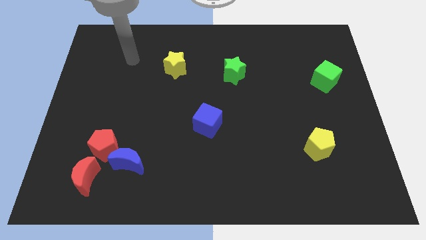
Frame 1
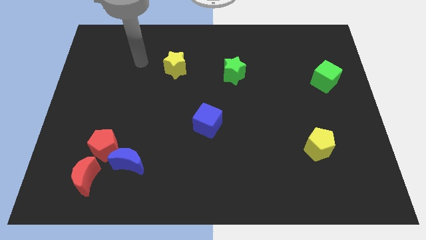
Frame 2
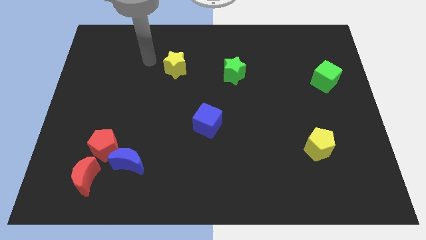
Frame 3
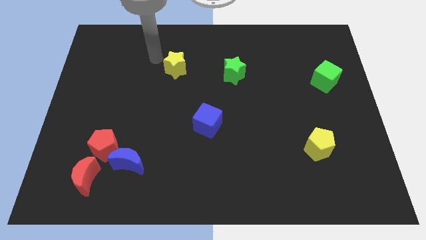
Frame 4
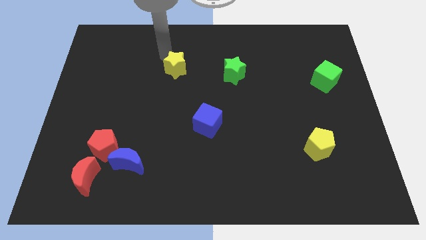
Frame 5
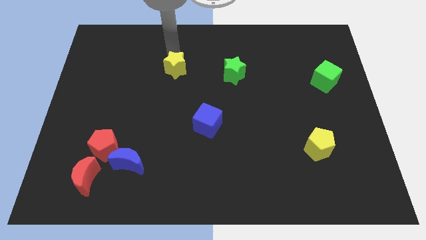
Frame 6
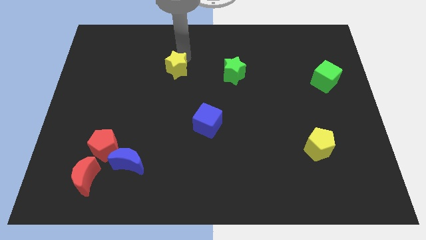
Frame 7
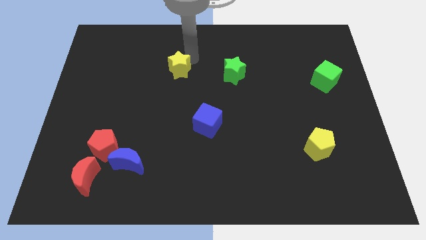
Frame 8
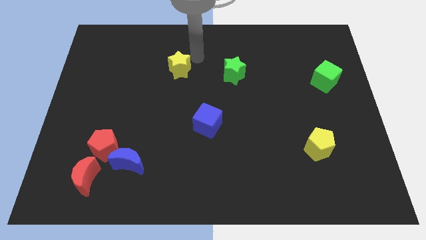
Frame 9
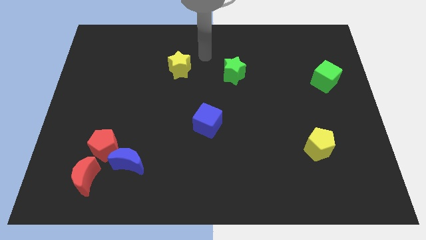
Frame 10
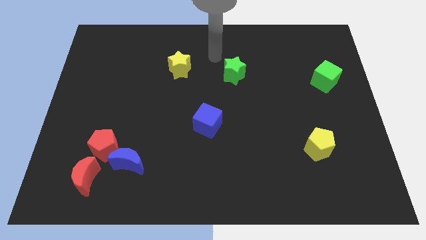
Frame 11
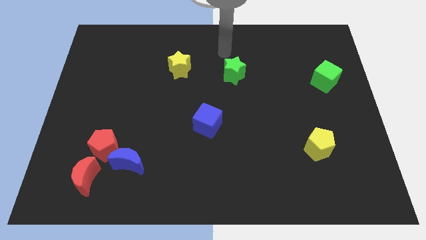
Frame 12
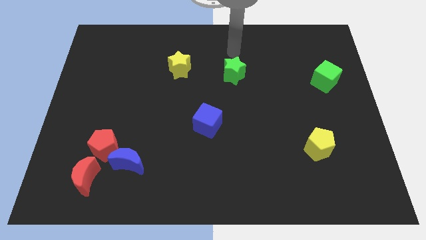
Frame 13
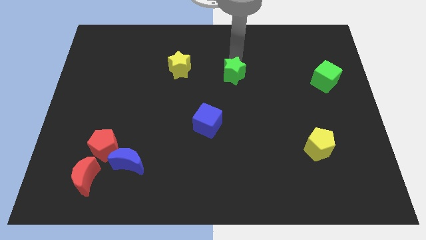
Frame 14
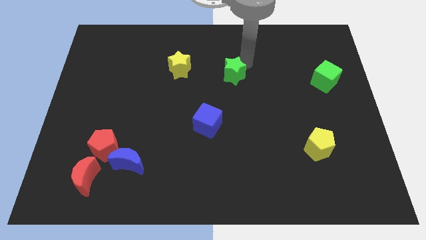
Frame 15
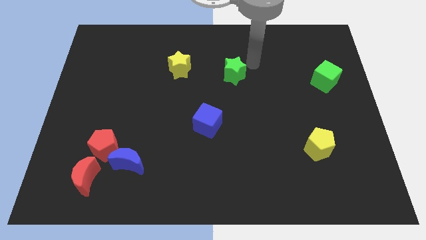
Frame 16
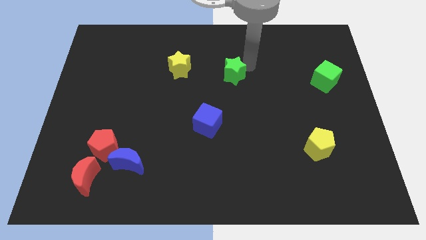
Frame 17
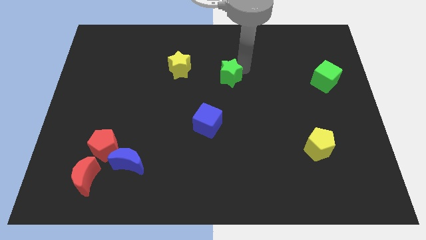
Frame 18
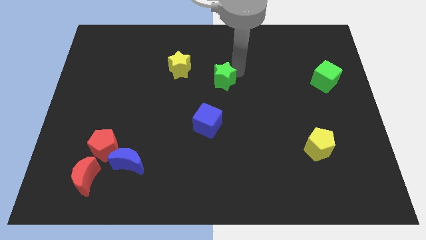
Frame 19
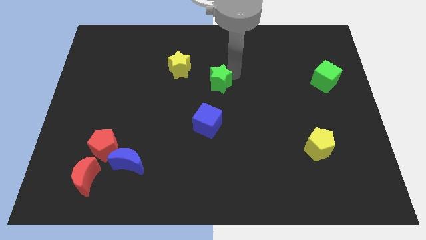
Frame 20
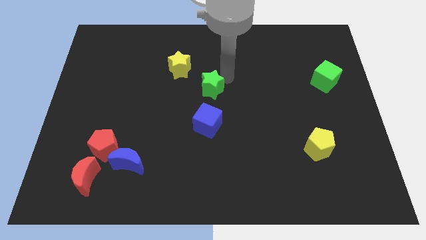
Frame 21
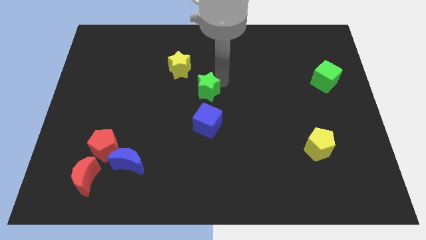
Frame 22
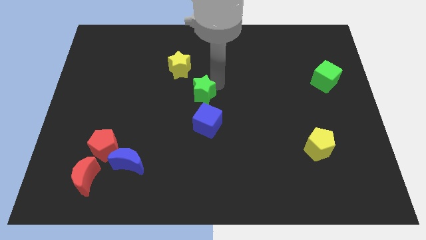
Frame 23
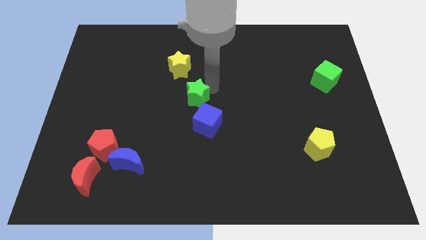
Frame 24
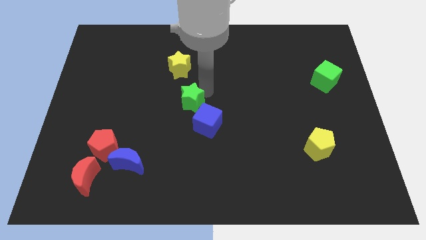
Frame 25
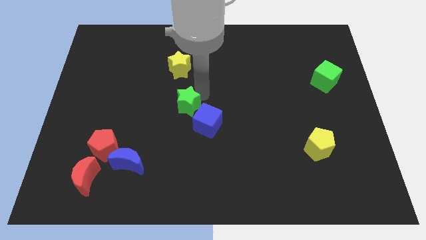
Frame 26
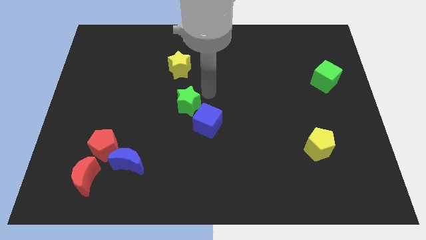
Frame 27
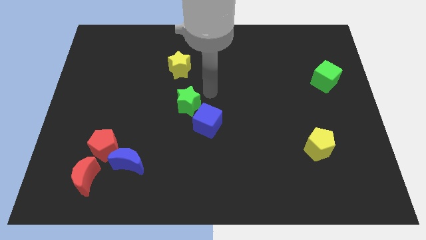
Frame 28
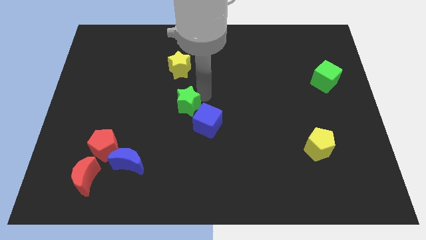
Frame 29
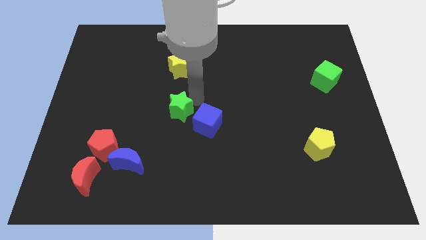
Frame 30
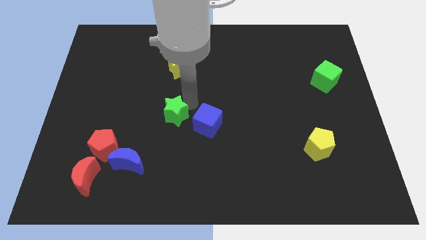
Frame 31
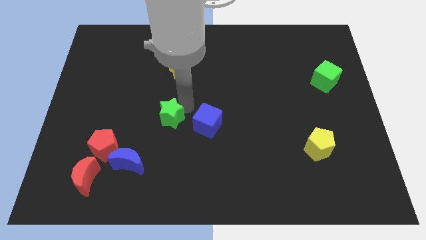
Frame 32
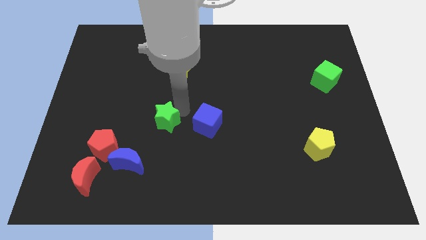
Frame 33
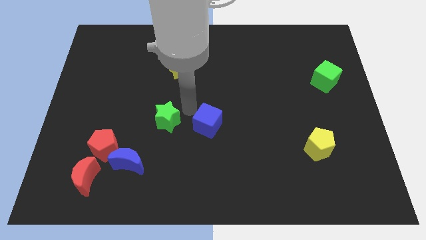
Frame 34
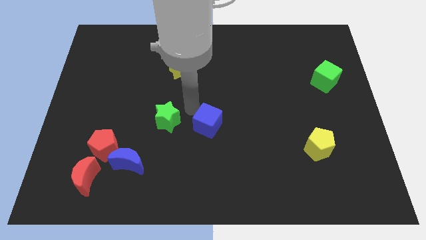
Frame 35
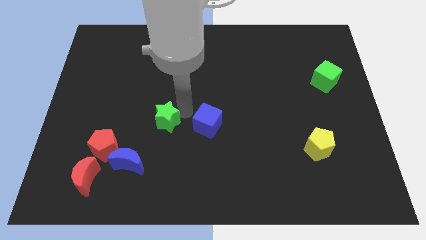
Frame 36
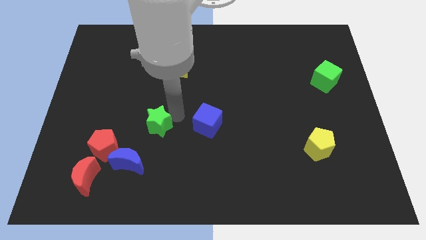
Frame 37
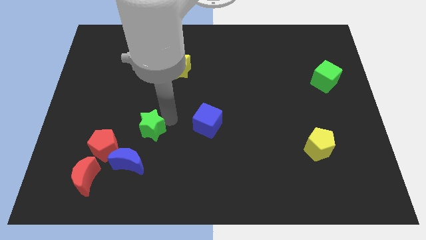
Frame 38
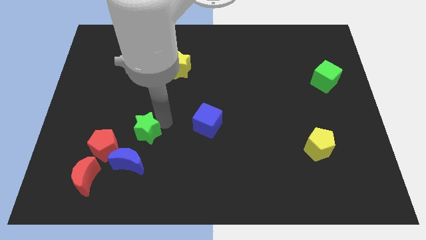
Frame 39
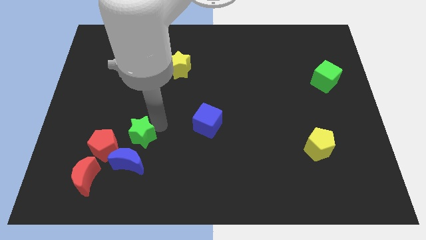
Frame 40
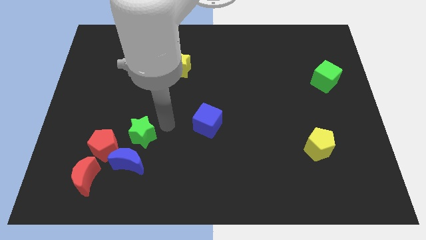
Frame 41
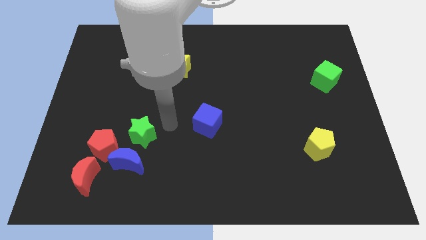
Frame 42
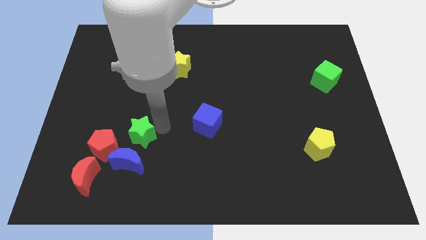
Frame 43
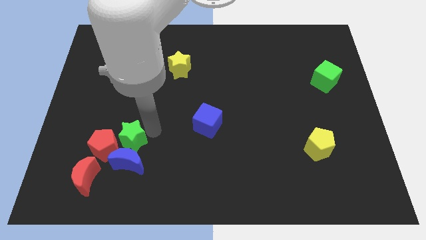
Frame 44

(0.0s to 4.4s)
move the green star towards the red pentagon

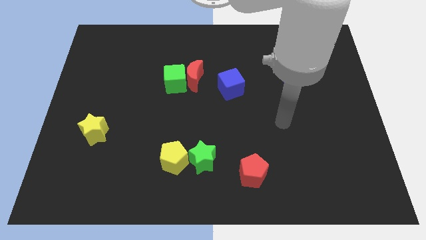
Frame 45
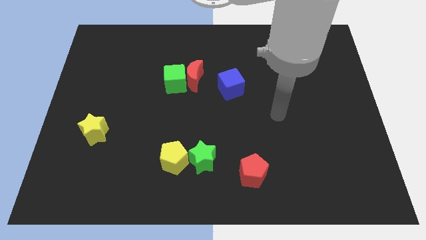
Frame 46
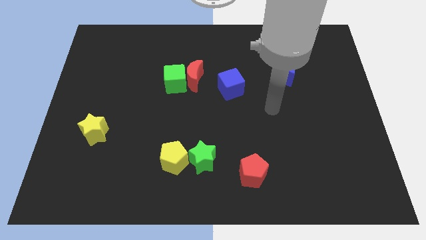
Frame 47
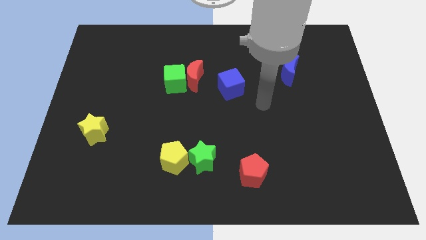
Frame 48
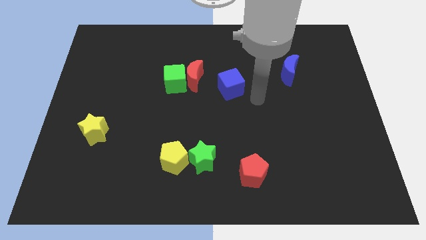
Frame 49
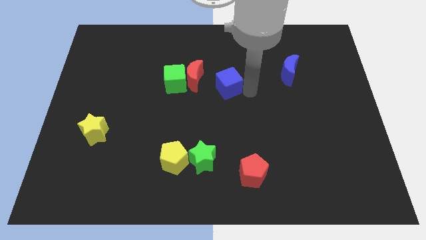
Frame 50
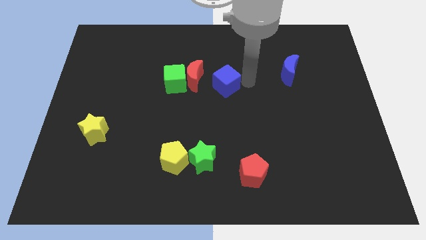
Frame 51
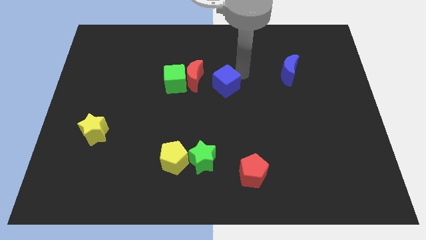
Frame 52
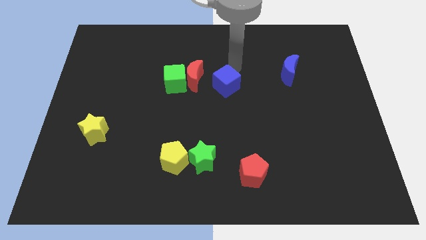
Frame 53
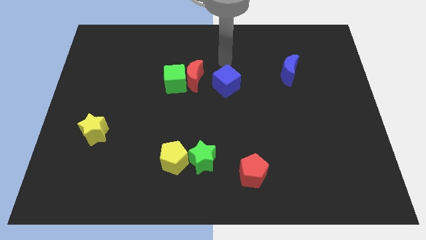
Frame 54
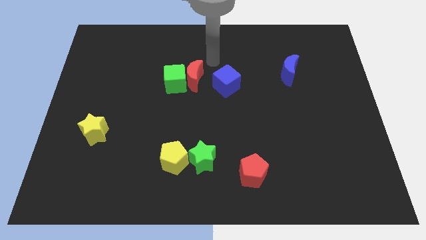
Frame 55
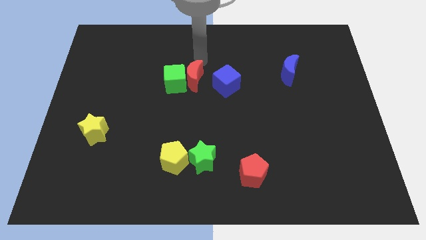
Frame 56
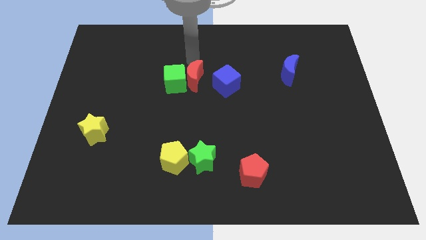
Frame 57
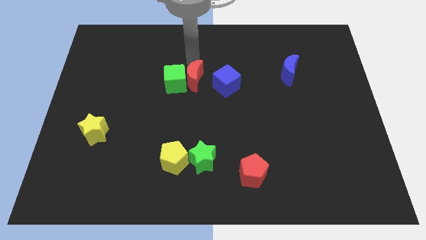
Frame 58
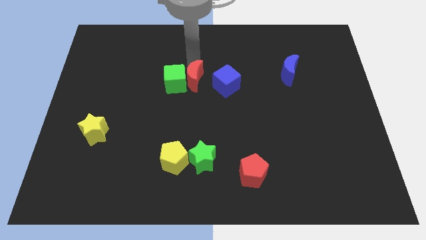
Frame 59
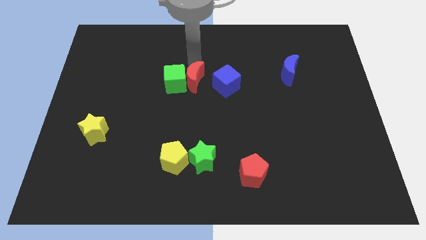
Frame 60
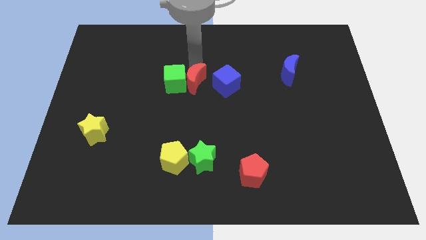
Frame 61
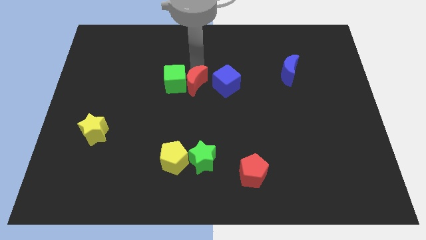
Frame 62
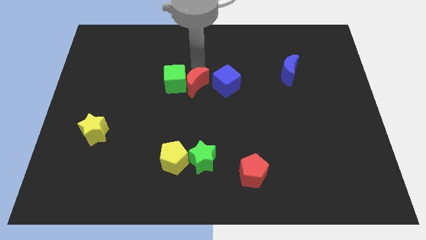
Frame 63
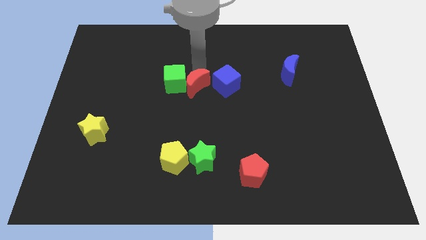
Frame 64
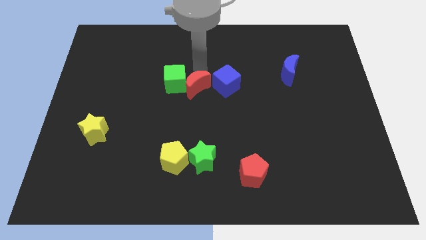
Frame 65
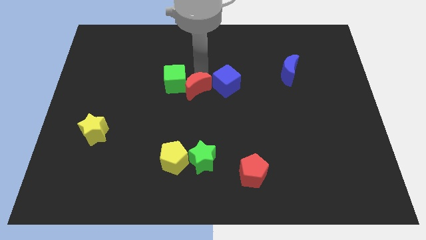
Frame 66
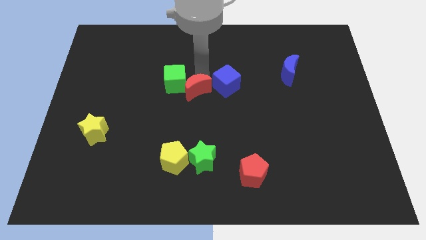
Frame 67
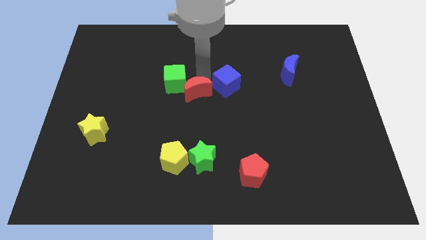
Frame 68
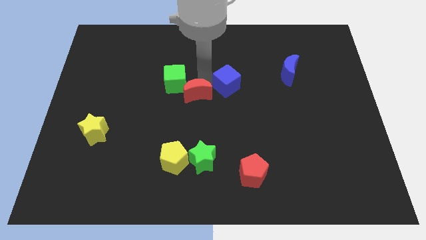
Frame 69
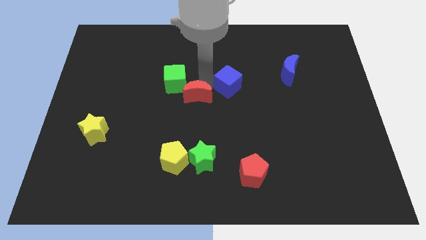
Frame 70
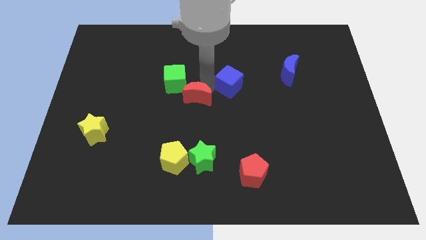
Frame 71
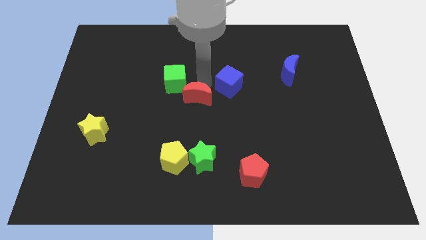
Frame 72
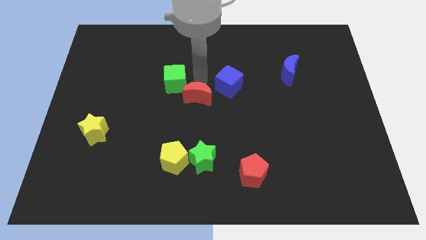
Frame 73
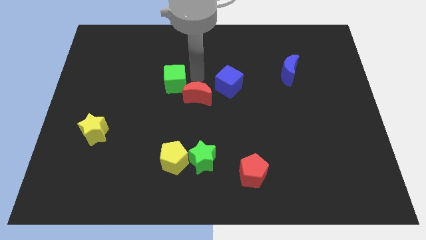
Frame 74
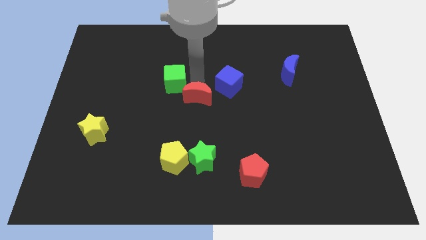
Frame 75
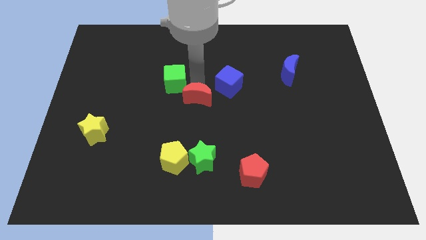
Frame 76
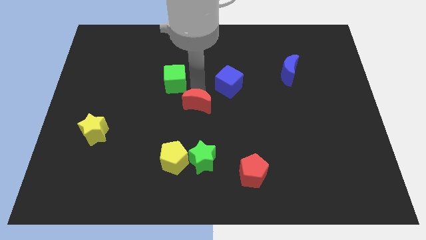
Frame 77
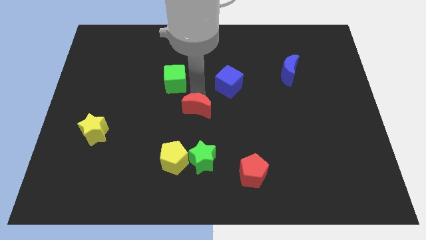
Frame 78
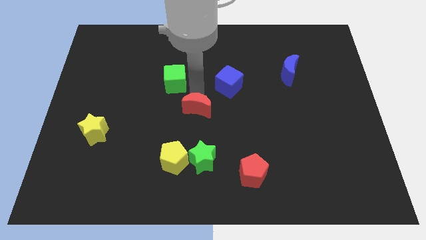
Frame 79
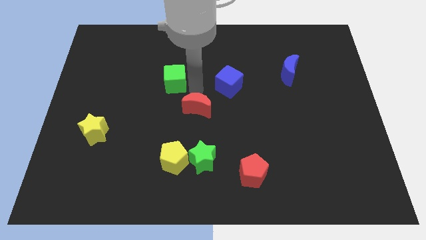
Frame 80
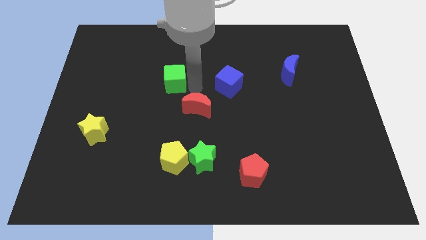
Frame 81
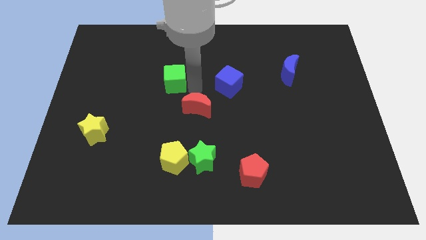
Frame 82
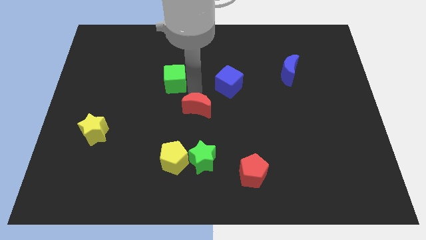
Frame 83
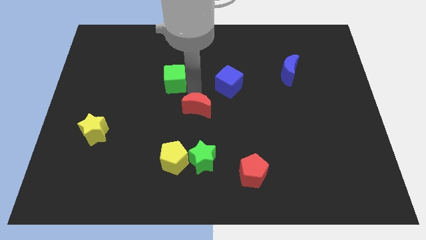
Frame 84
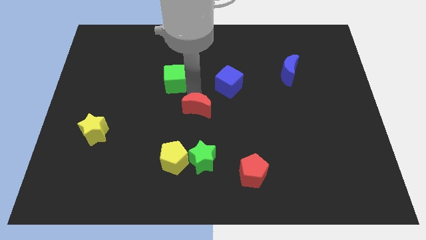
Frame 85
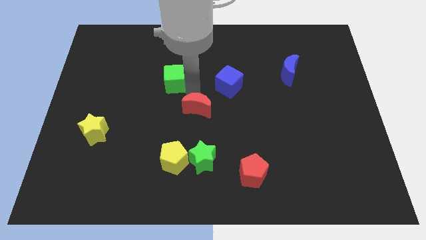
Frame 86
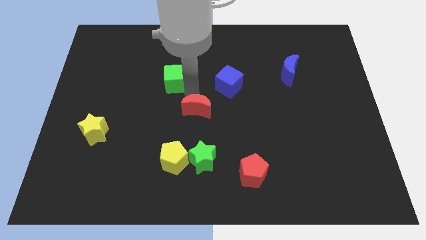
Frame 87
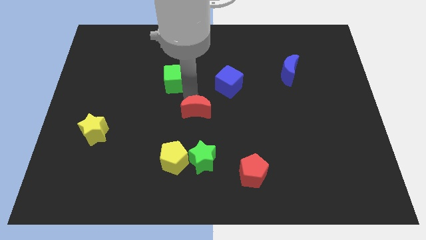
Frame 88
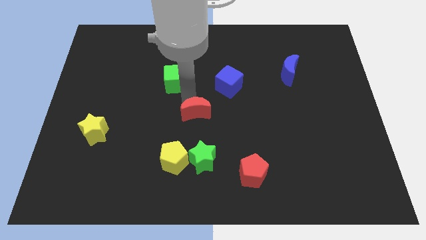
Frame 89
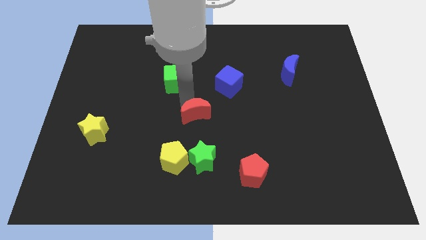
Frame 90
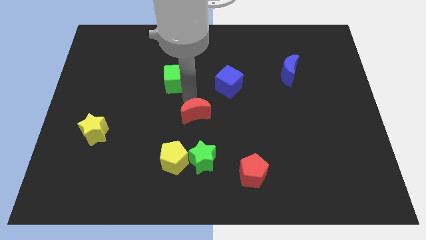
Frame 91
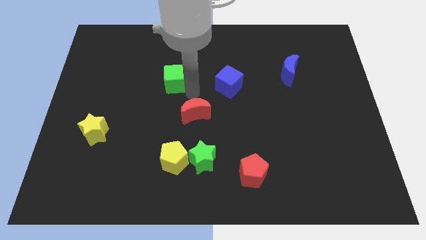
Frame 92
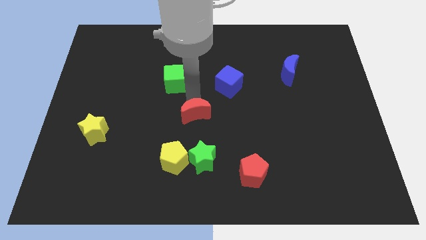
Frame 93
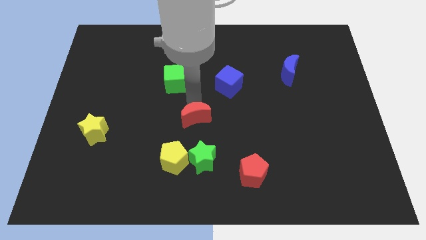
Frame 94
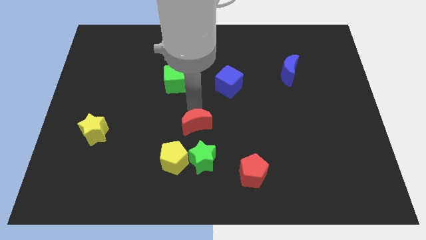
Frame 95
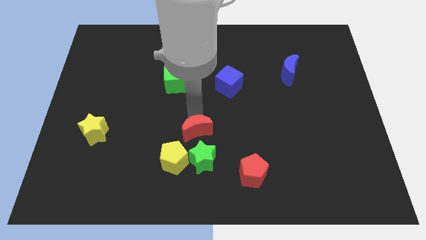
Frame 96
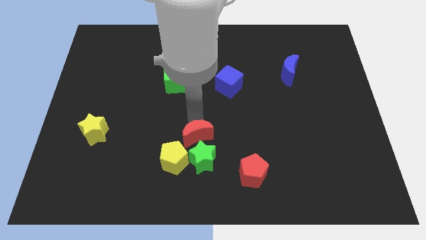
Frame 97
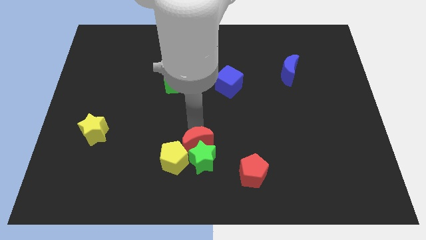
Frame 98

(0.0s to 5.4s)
move the red moon towards the green star
